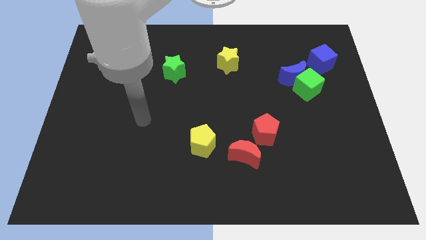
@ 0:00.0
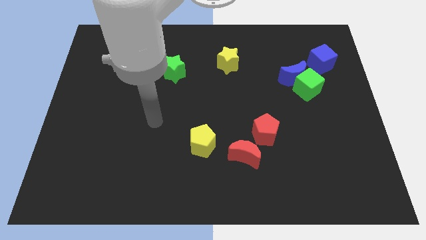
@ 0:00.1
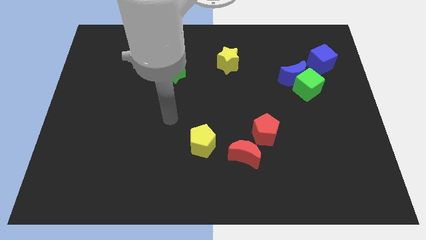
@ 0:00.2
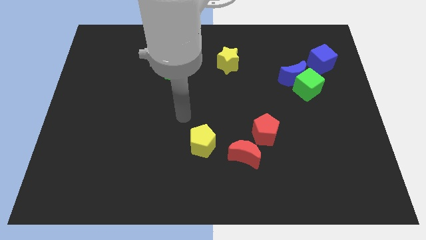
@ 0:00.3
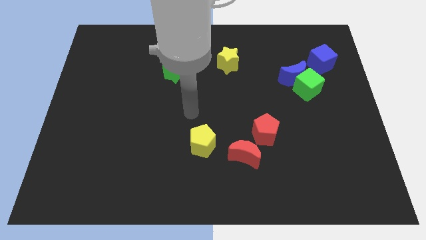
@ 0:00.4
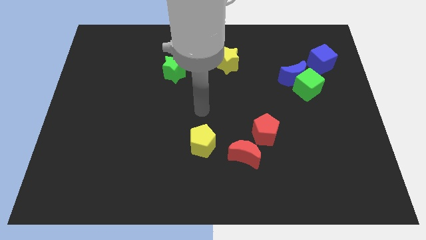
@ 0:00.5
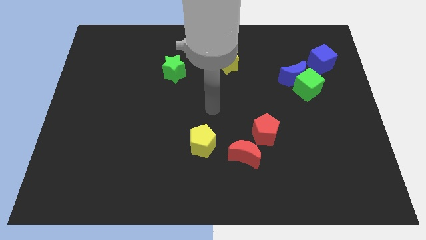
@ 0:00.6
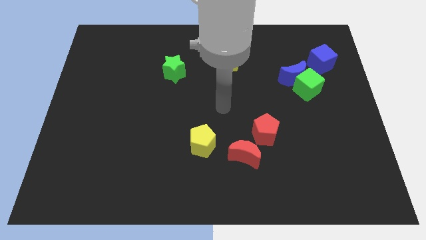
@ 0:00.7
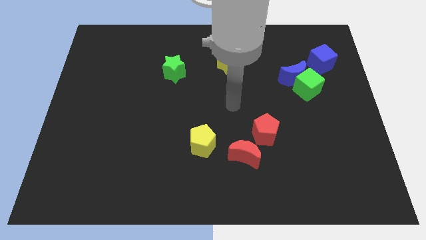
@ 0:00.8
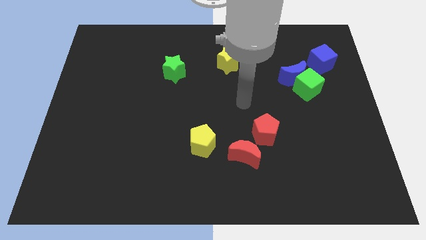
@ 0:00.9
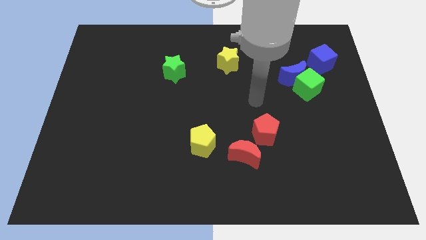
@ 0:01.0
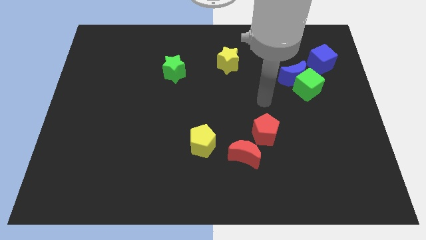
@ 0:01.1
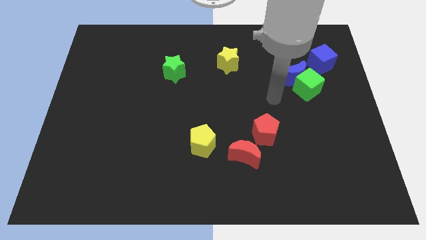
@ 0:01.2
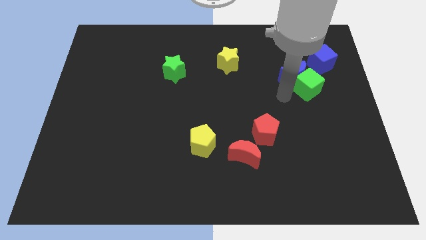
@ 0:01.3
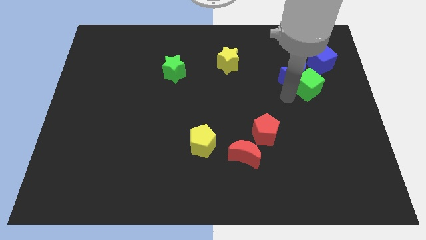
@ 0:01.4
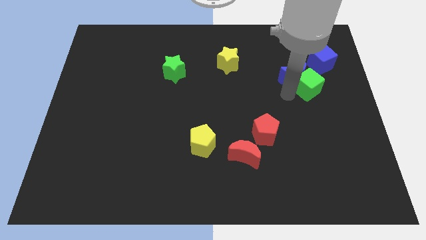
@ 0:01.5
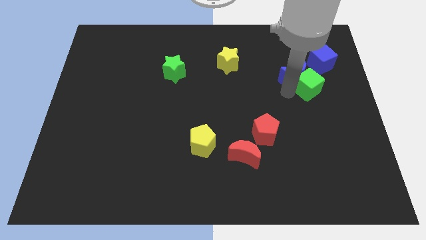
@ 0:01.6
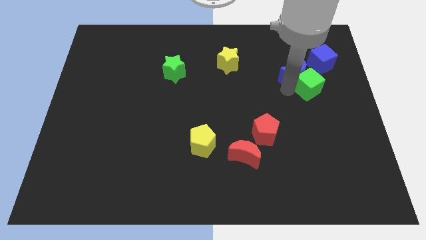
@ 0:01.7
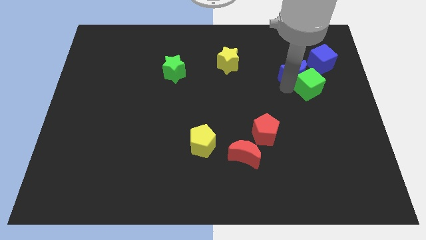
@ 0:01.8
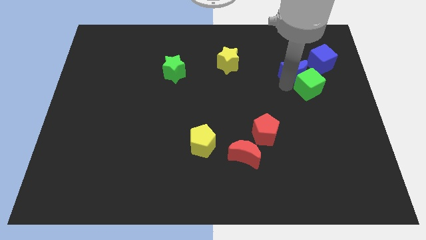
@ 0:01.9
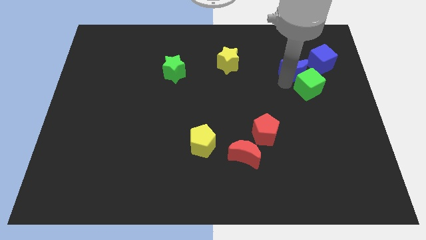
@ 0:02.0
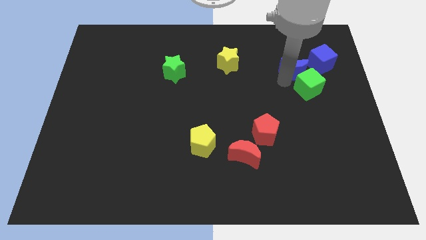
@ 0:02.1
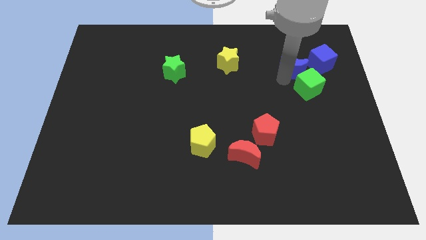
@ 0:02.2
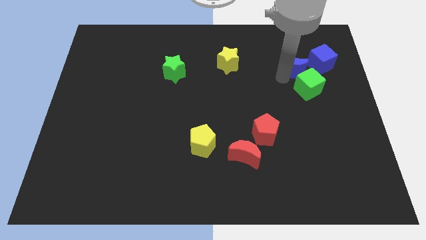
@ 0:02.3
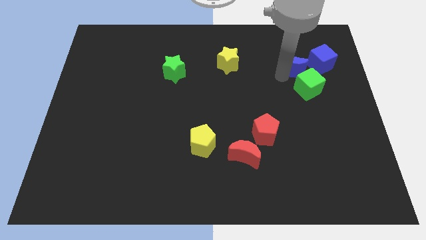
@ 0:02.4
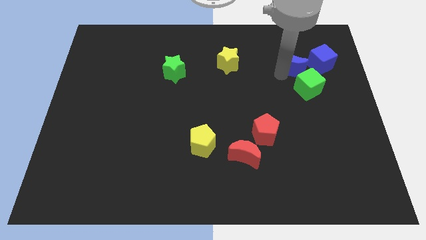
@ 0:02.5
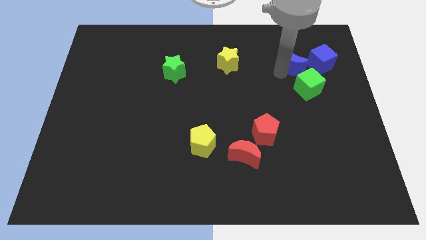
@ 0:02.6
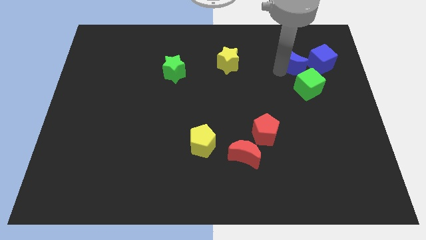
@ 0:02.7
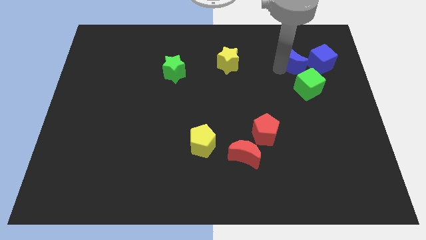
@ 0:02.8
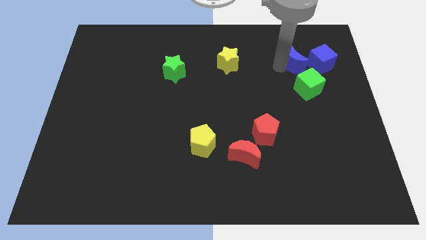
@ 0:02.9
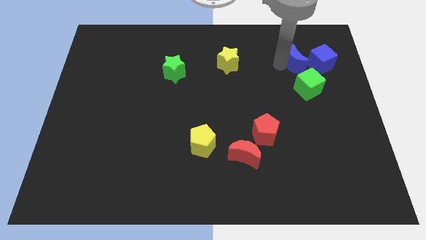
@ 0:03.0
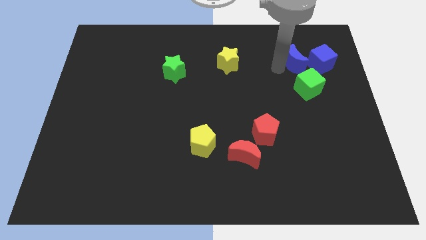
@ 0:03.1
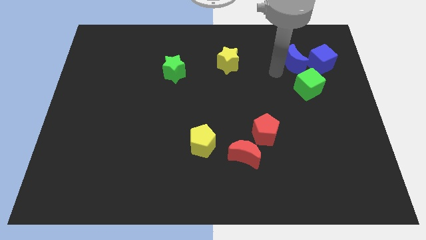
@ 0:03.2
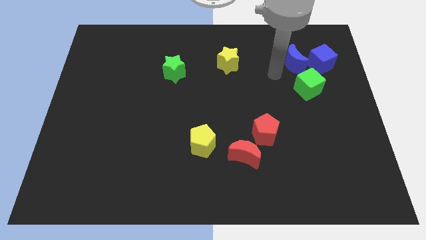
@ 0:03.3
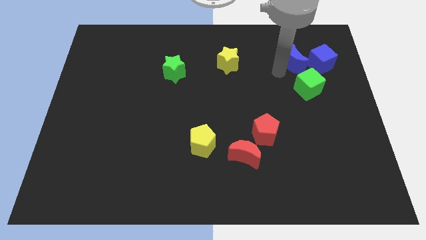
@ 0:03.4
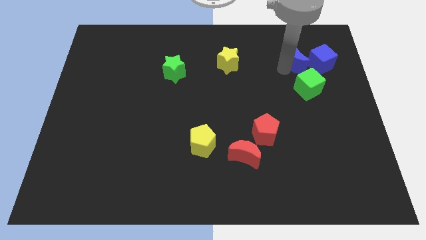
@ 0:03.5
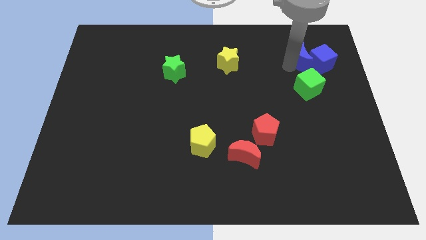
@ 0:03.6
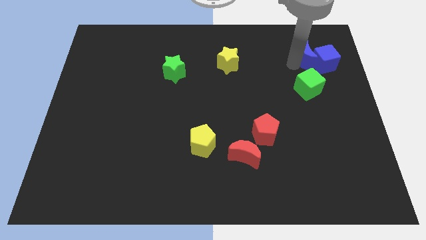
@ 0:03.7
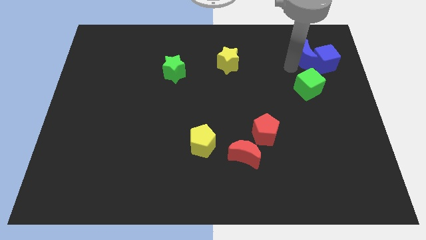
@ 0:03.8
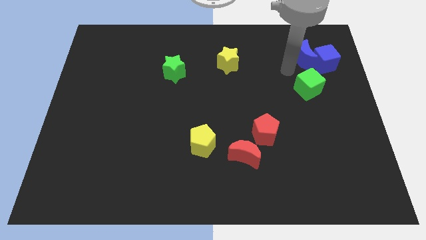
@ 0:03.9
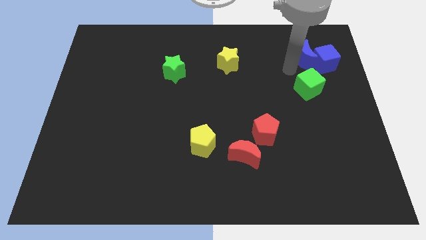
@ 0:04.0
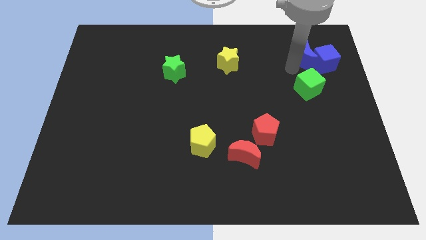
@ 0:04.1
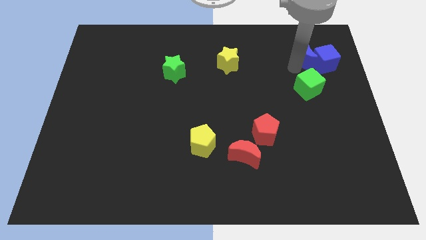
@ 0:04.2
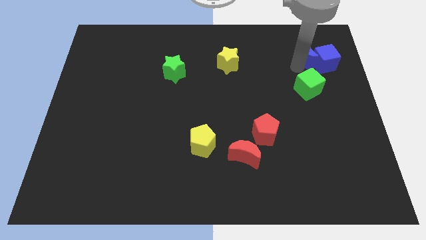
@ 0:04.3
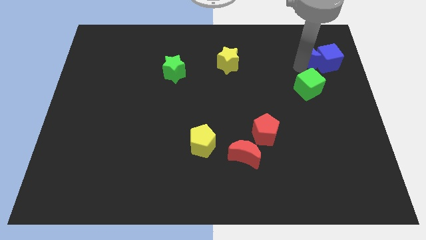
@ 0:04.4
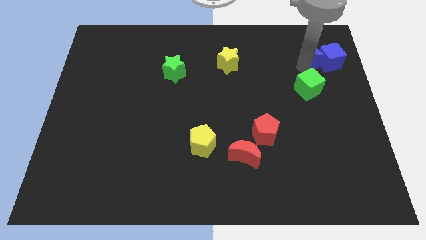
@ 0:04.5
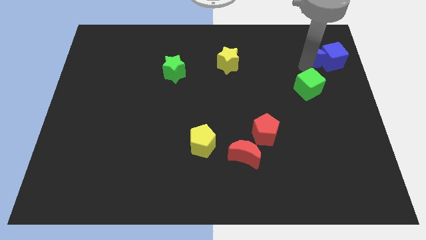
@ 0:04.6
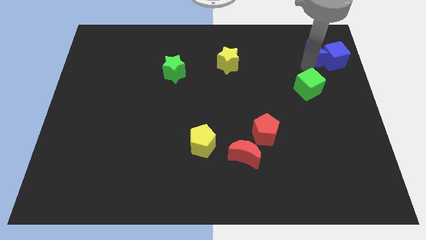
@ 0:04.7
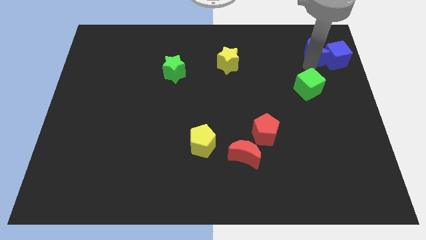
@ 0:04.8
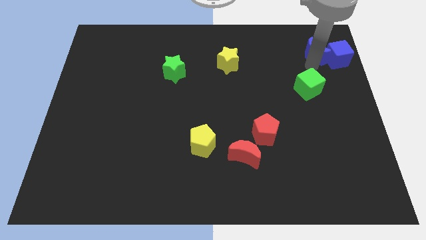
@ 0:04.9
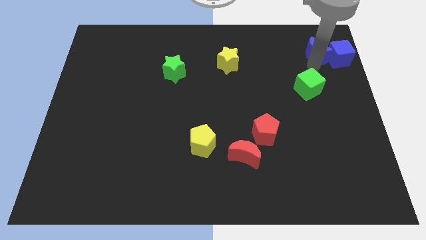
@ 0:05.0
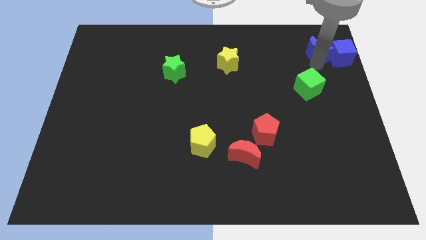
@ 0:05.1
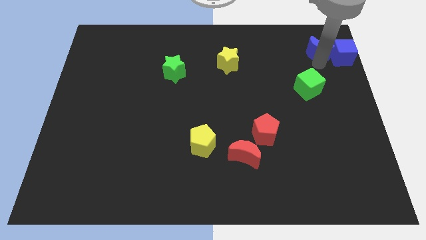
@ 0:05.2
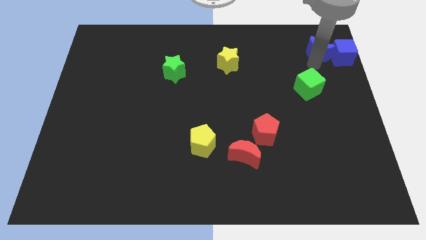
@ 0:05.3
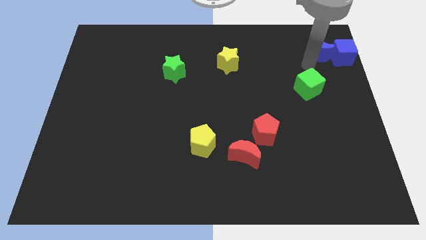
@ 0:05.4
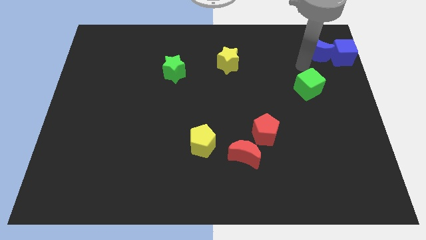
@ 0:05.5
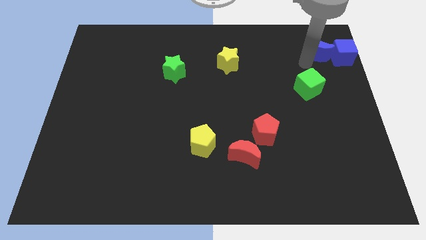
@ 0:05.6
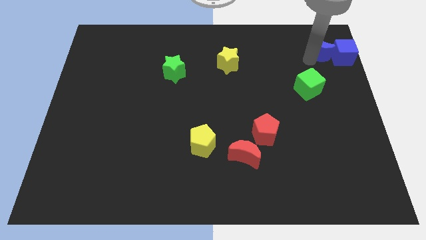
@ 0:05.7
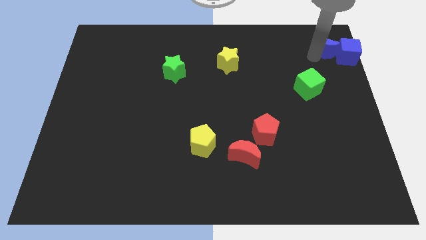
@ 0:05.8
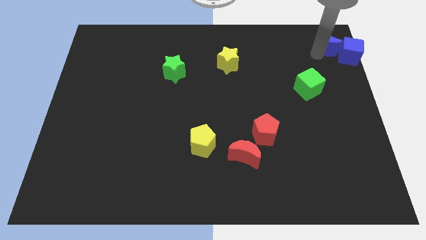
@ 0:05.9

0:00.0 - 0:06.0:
move the blue moon to the top right

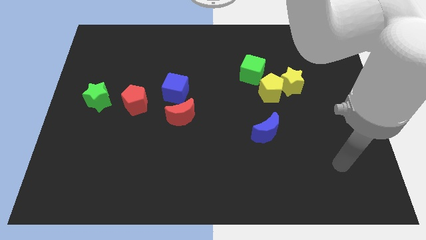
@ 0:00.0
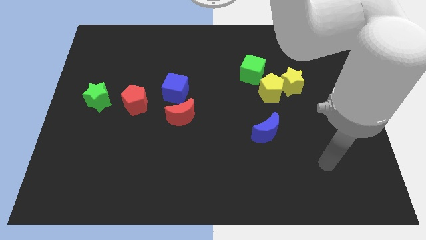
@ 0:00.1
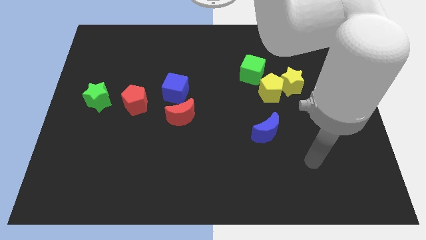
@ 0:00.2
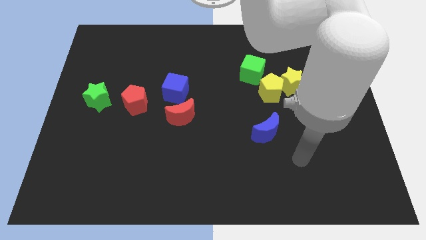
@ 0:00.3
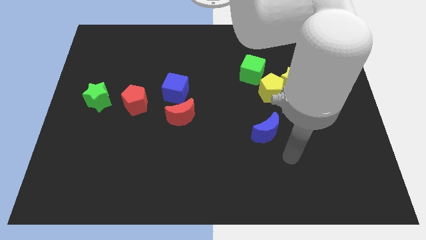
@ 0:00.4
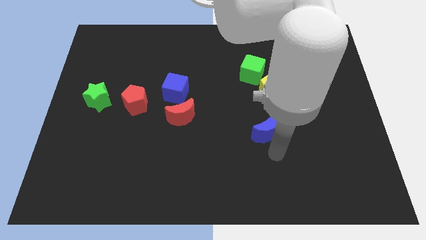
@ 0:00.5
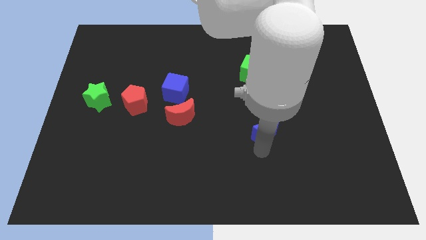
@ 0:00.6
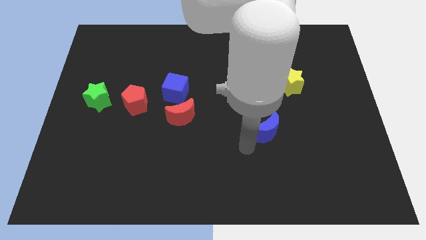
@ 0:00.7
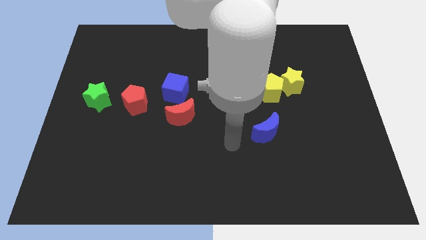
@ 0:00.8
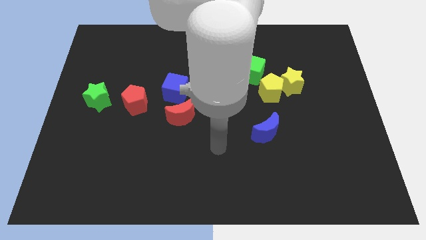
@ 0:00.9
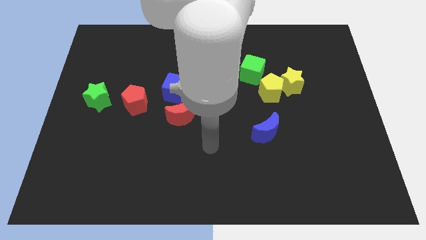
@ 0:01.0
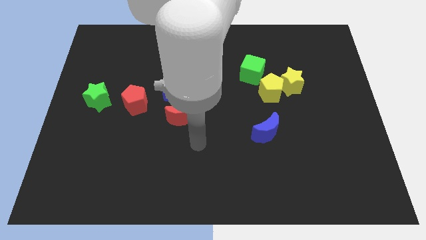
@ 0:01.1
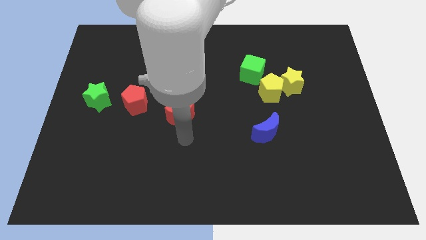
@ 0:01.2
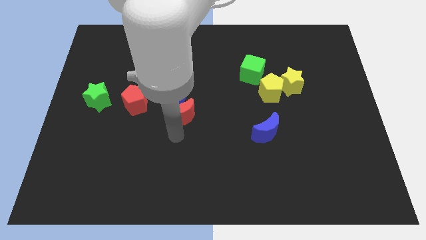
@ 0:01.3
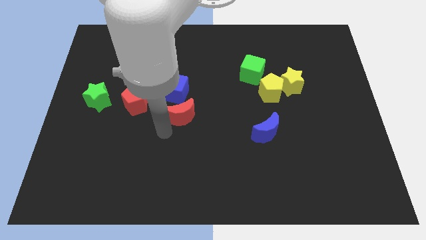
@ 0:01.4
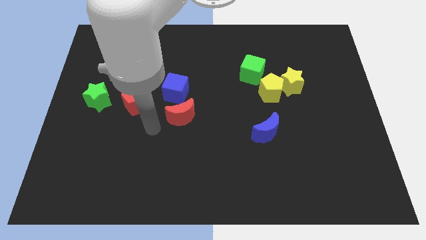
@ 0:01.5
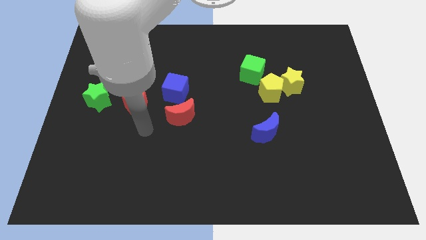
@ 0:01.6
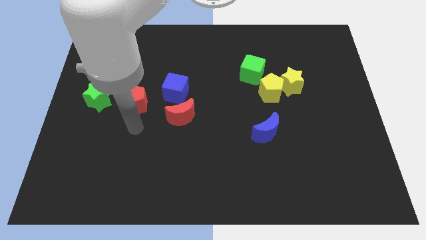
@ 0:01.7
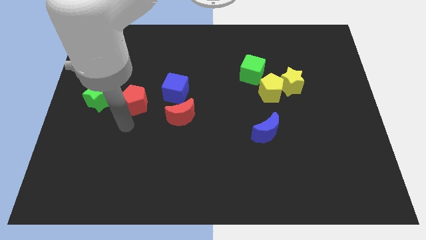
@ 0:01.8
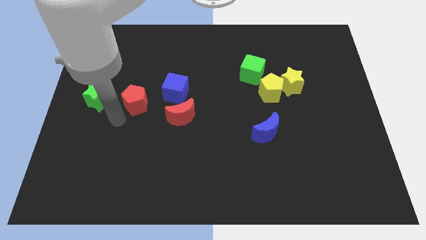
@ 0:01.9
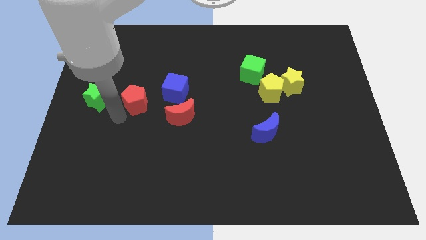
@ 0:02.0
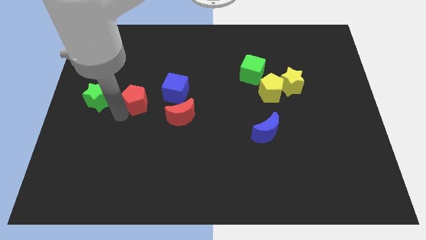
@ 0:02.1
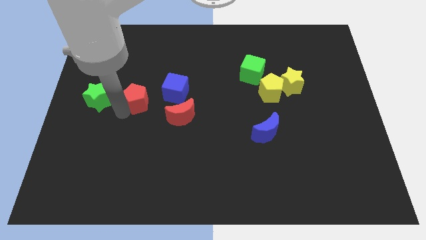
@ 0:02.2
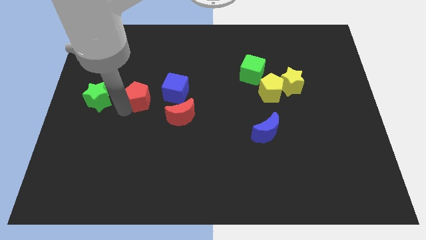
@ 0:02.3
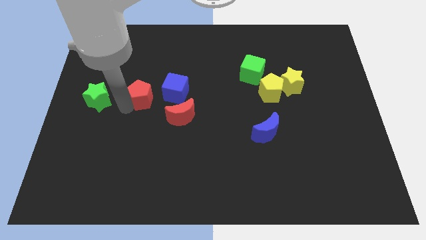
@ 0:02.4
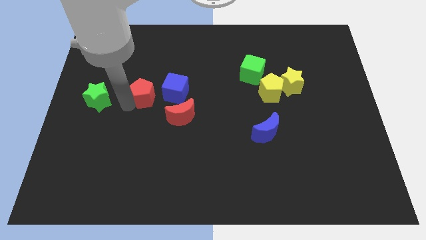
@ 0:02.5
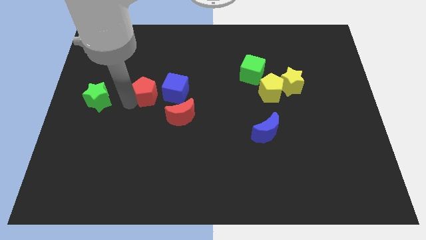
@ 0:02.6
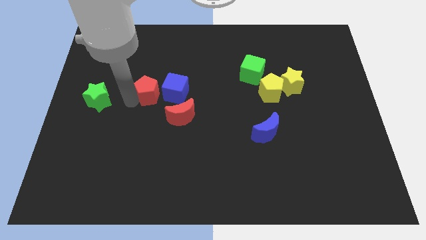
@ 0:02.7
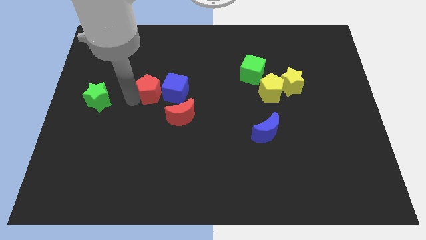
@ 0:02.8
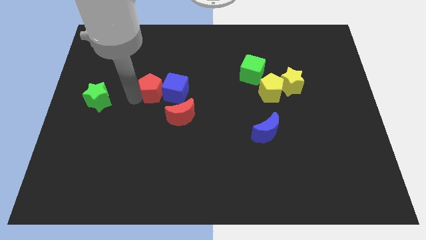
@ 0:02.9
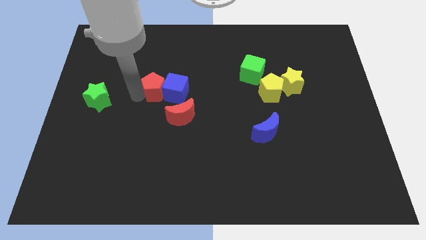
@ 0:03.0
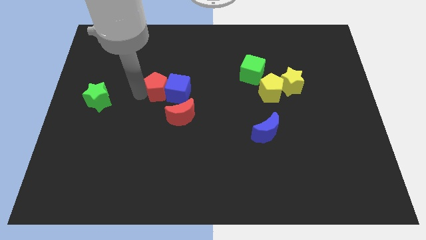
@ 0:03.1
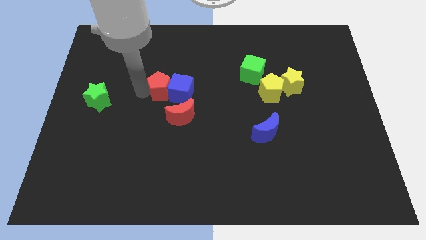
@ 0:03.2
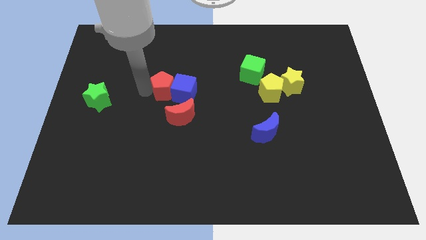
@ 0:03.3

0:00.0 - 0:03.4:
put the red pentagon to the middle
